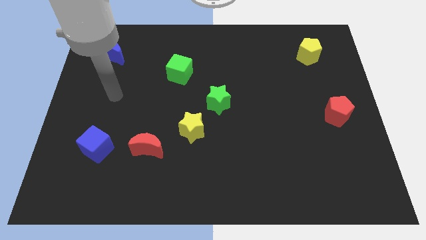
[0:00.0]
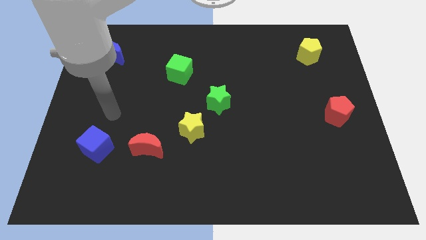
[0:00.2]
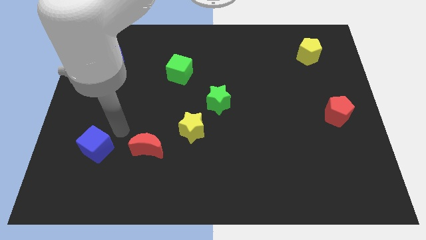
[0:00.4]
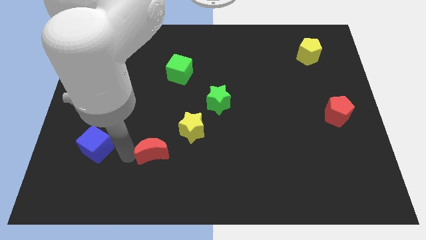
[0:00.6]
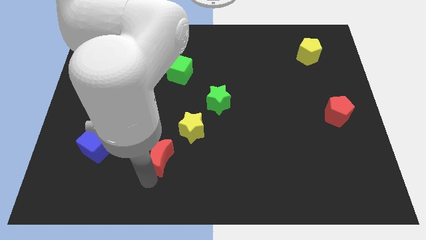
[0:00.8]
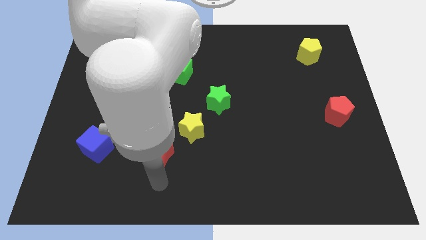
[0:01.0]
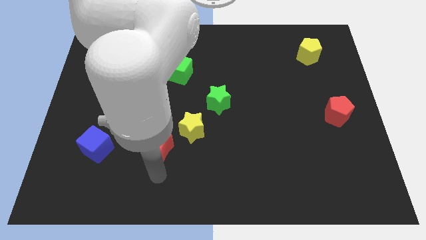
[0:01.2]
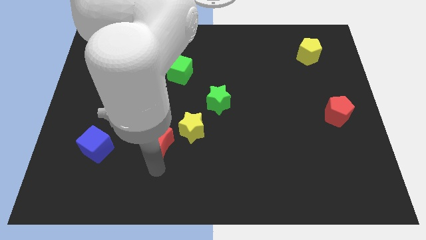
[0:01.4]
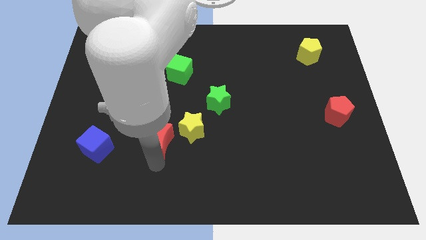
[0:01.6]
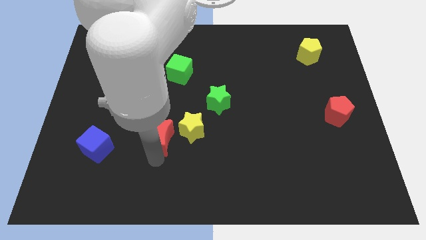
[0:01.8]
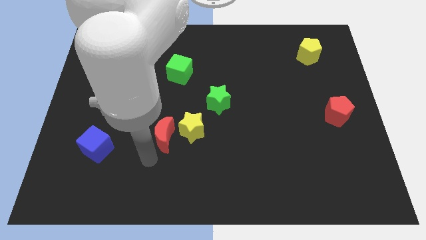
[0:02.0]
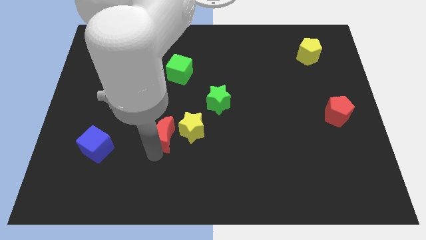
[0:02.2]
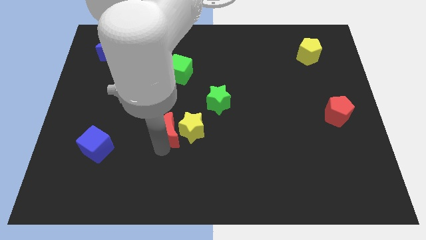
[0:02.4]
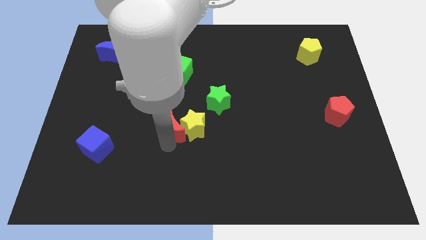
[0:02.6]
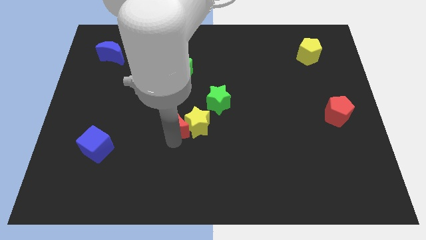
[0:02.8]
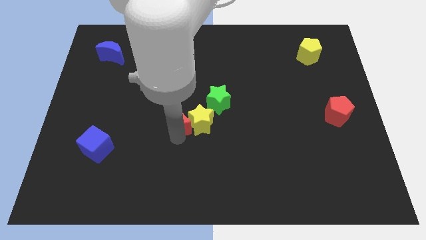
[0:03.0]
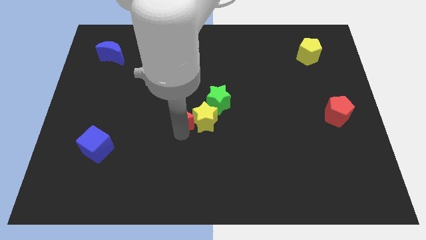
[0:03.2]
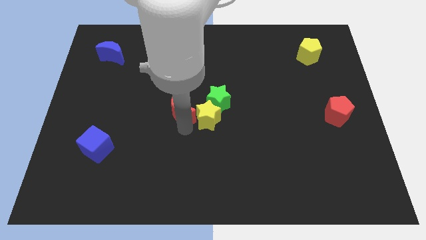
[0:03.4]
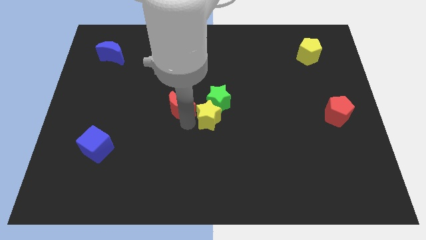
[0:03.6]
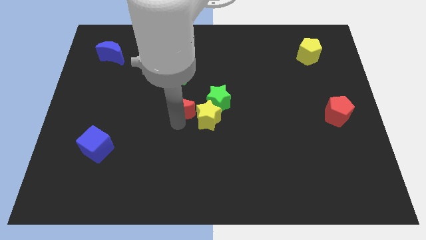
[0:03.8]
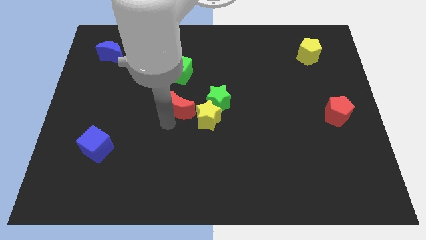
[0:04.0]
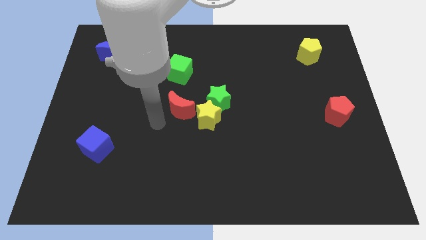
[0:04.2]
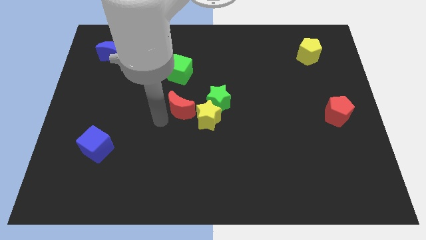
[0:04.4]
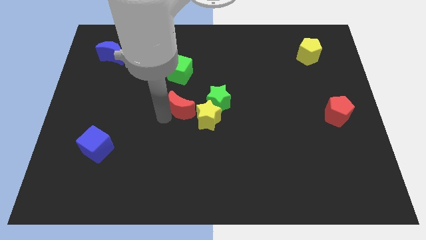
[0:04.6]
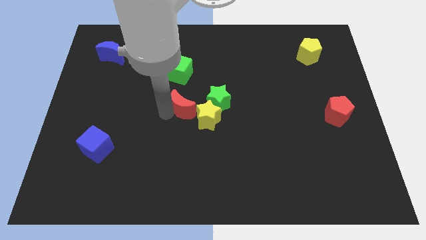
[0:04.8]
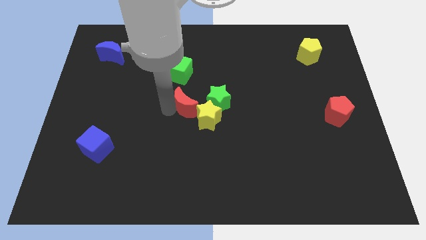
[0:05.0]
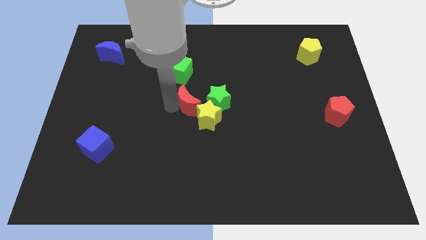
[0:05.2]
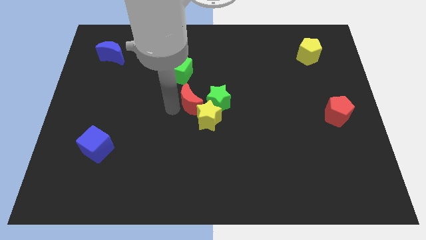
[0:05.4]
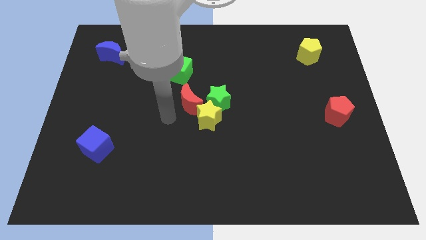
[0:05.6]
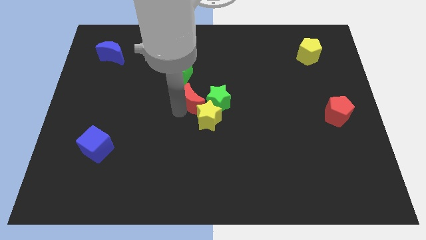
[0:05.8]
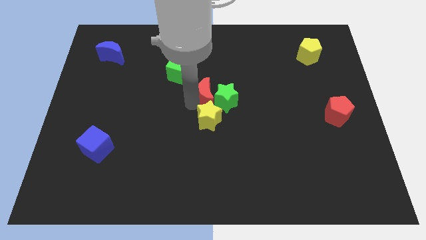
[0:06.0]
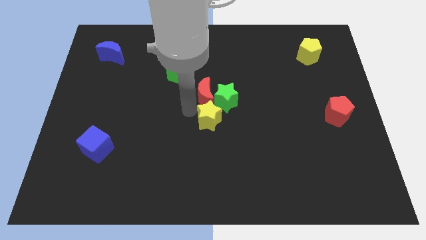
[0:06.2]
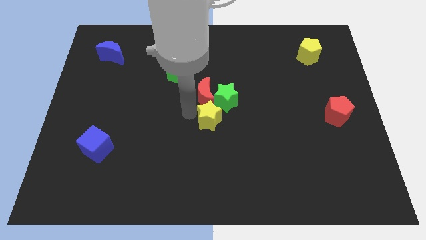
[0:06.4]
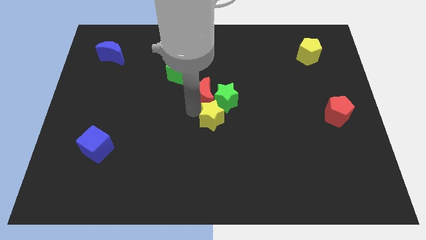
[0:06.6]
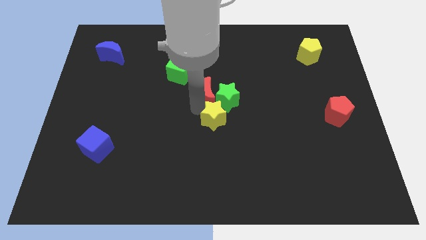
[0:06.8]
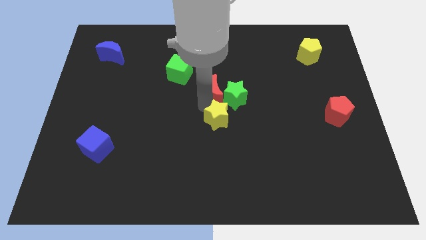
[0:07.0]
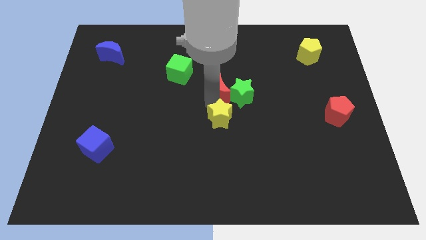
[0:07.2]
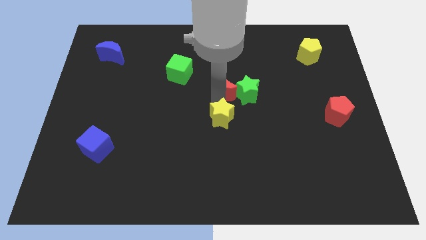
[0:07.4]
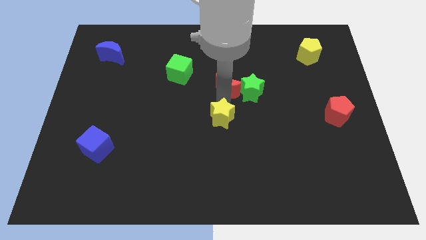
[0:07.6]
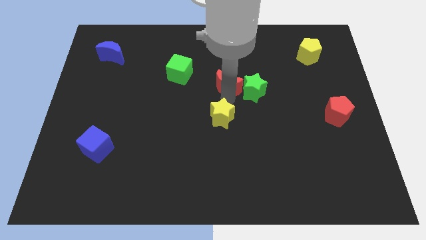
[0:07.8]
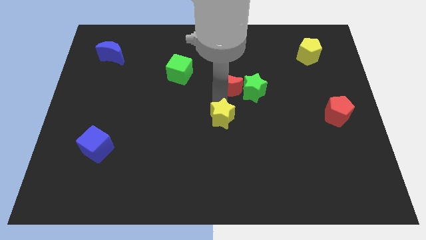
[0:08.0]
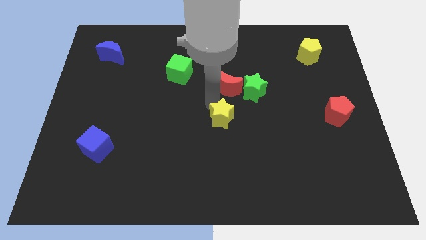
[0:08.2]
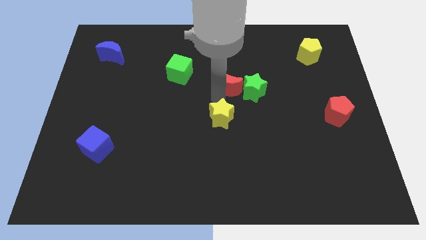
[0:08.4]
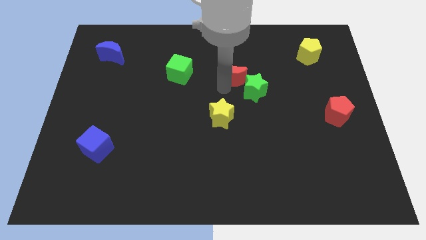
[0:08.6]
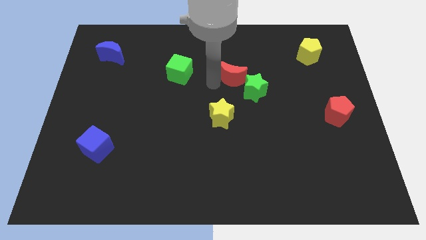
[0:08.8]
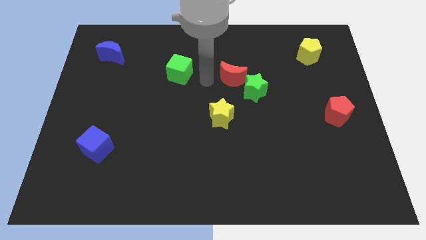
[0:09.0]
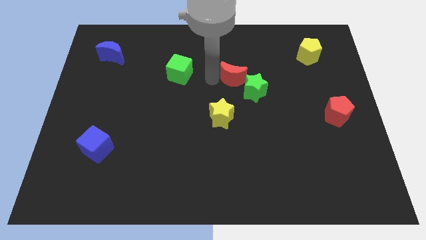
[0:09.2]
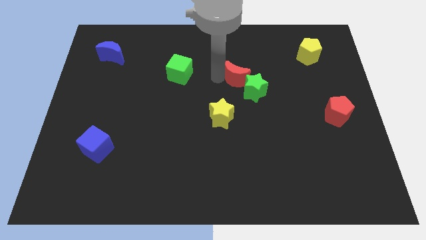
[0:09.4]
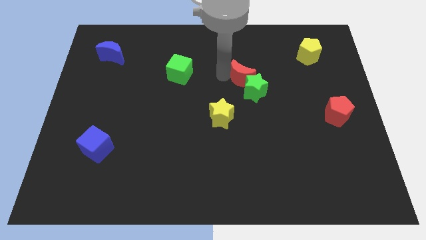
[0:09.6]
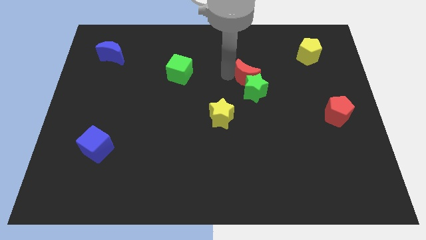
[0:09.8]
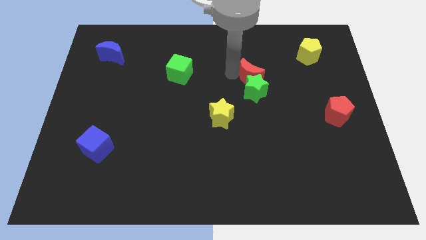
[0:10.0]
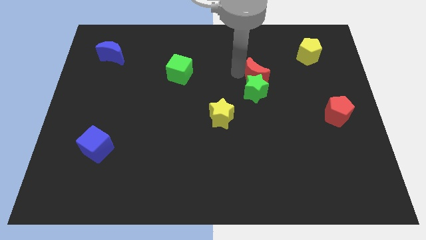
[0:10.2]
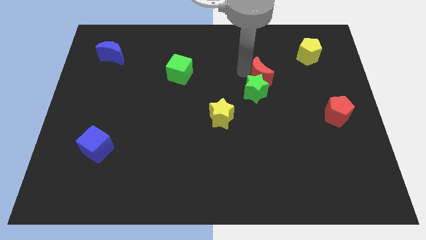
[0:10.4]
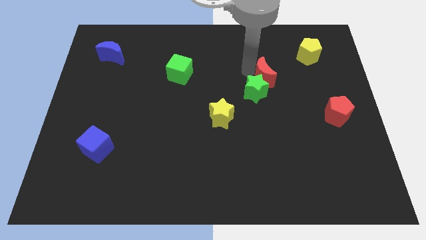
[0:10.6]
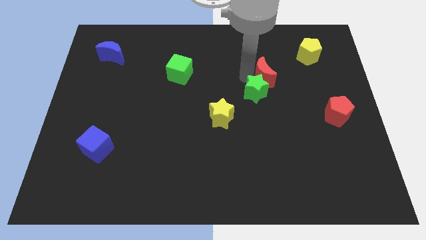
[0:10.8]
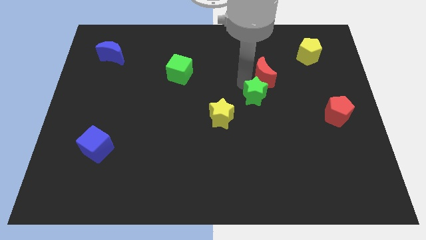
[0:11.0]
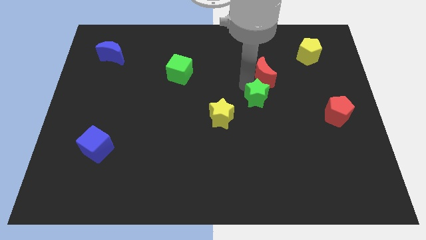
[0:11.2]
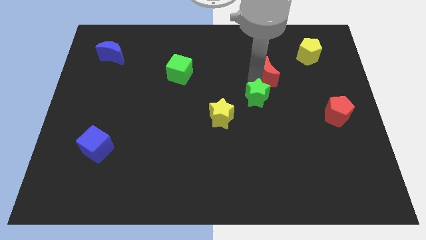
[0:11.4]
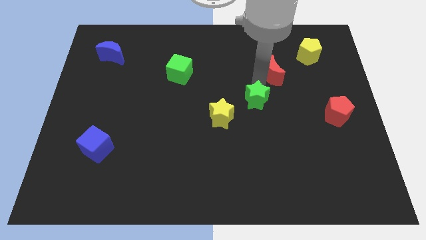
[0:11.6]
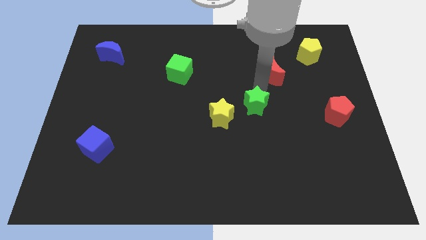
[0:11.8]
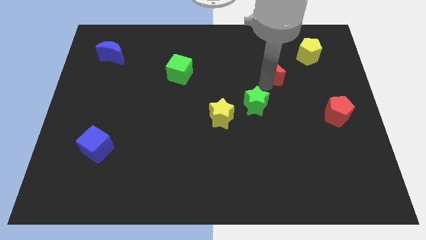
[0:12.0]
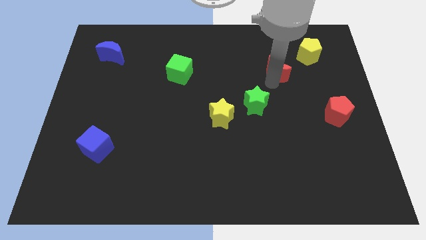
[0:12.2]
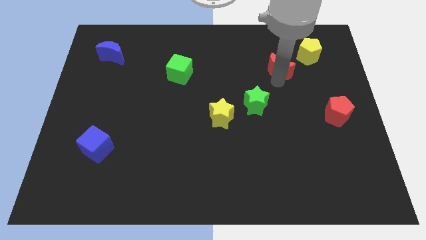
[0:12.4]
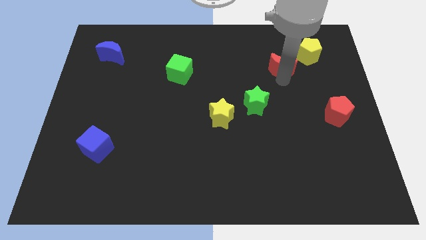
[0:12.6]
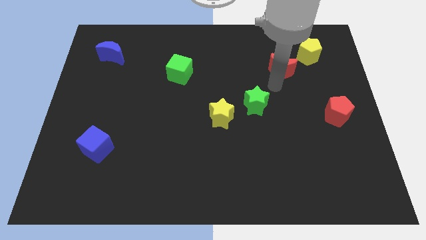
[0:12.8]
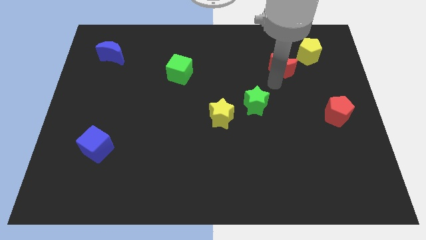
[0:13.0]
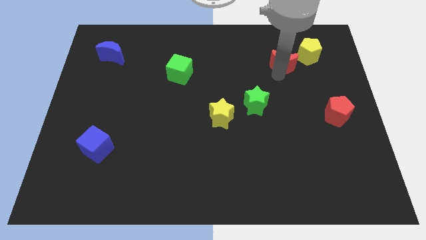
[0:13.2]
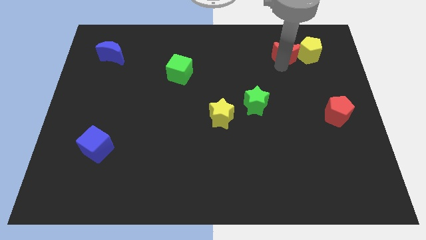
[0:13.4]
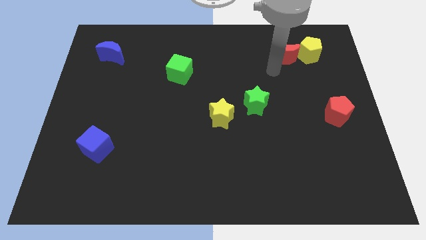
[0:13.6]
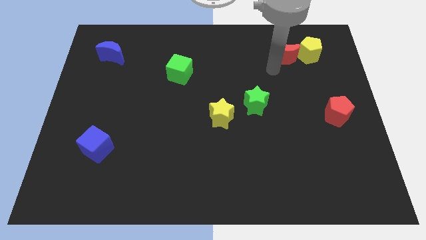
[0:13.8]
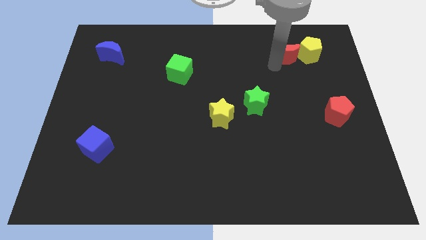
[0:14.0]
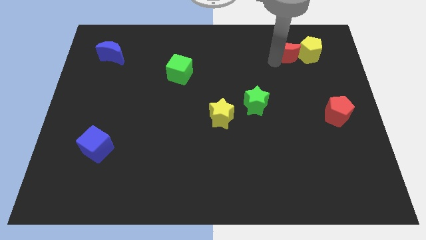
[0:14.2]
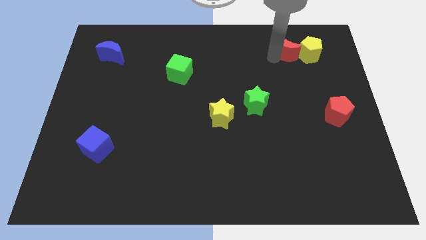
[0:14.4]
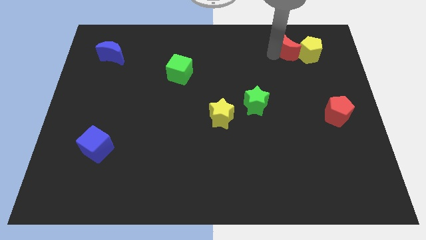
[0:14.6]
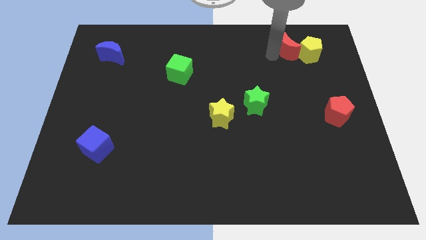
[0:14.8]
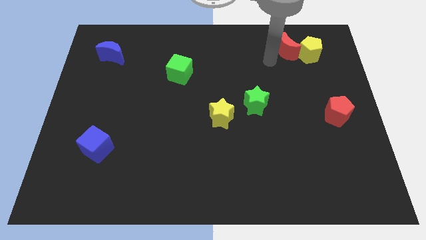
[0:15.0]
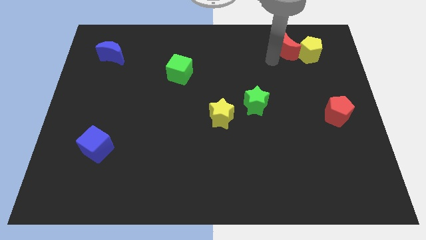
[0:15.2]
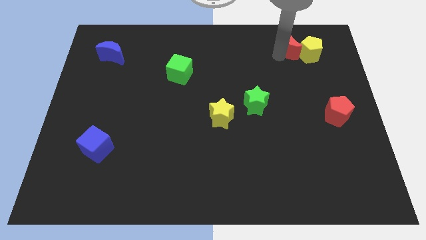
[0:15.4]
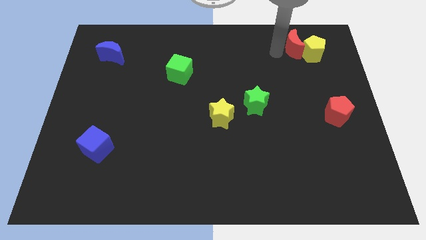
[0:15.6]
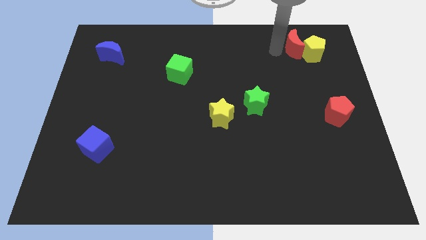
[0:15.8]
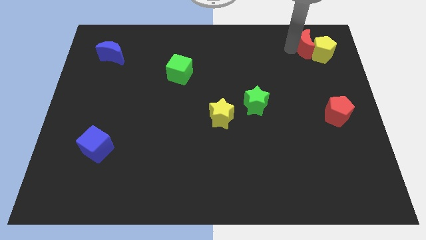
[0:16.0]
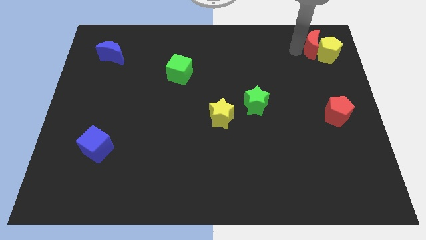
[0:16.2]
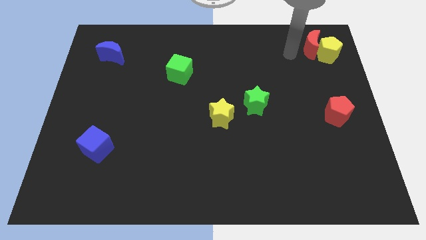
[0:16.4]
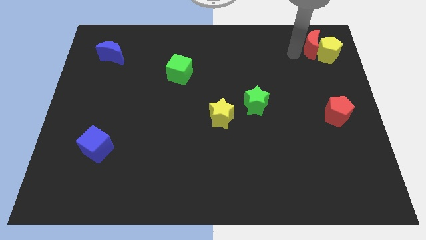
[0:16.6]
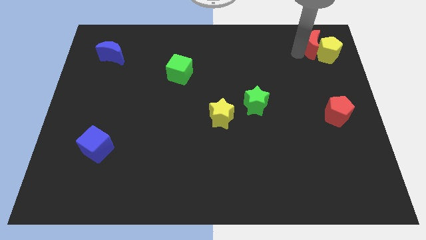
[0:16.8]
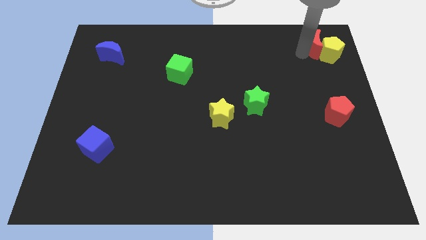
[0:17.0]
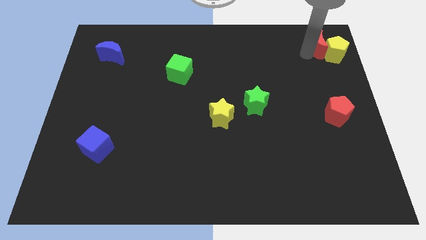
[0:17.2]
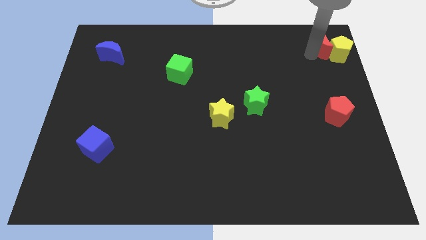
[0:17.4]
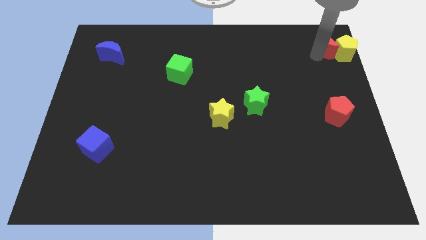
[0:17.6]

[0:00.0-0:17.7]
put the red moon to the top right of the board

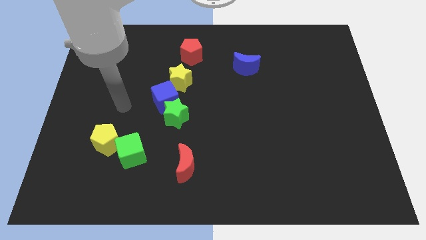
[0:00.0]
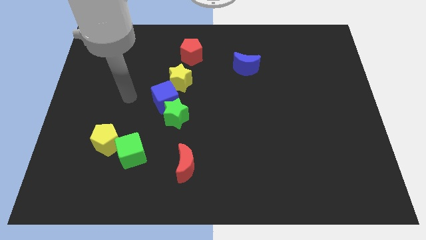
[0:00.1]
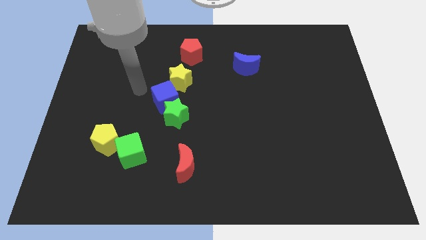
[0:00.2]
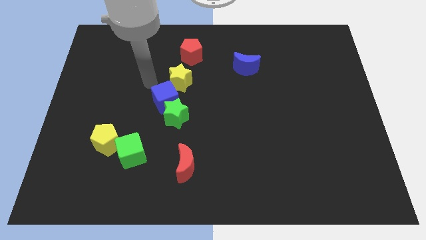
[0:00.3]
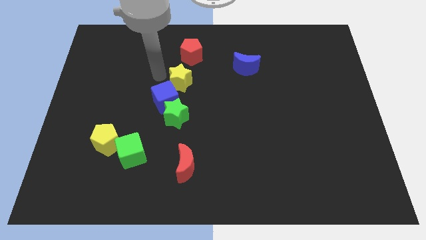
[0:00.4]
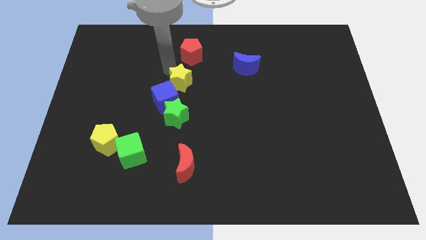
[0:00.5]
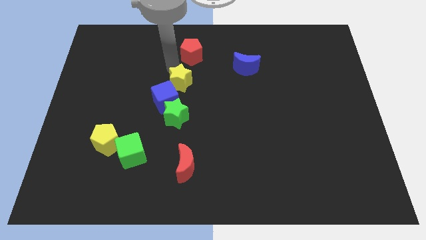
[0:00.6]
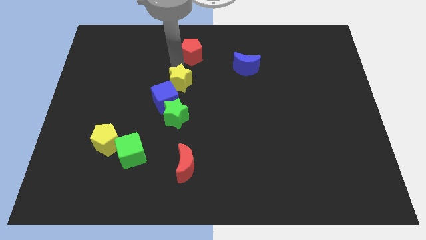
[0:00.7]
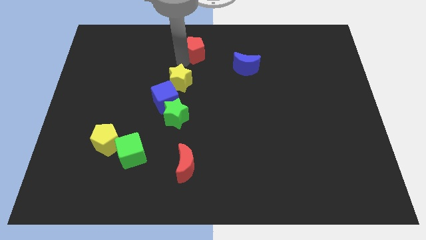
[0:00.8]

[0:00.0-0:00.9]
push the red pentagon to the towards your base
